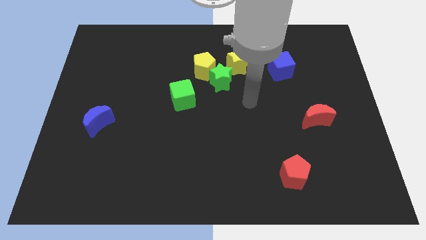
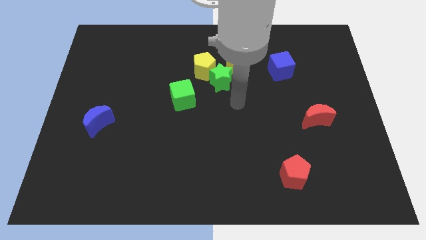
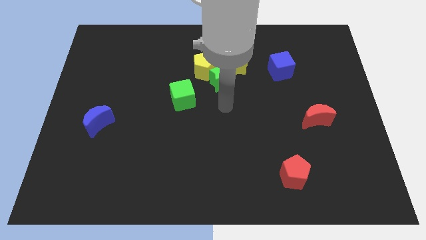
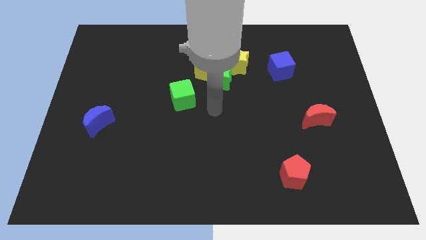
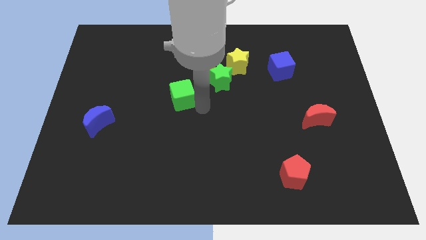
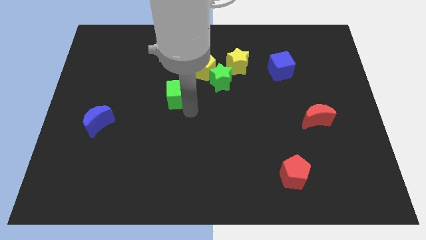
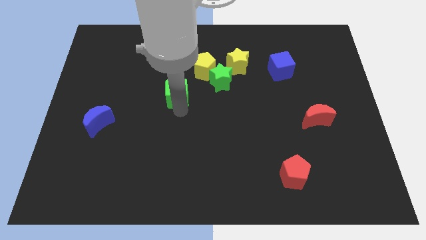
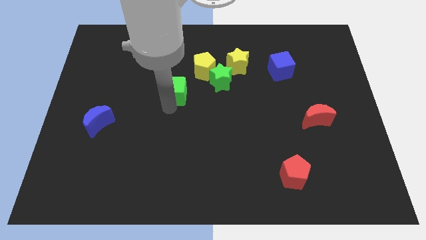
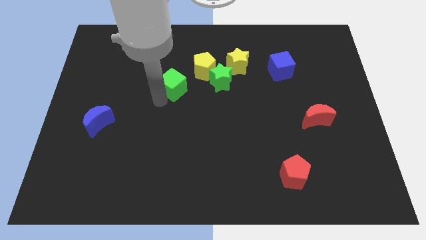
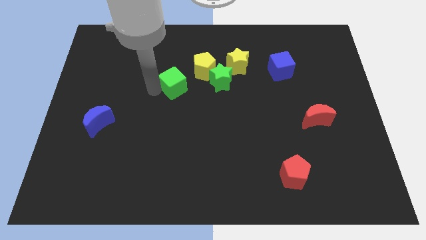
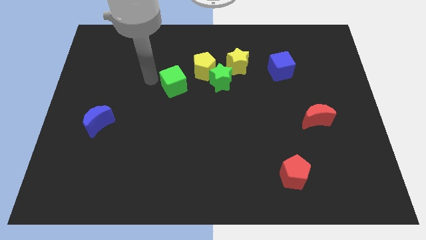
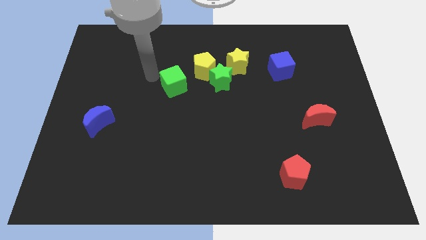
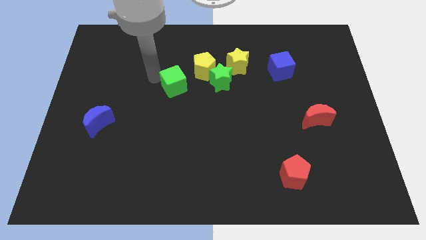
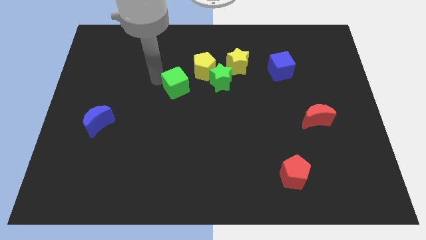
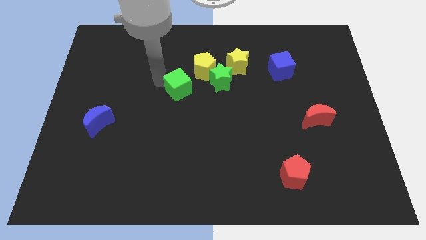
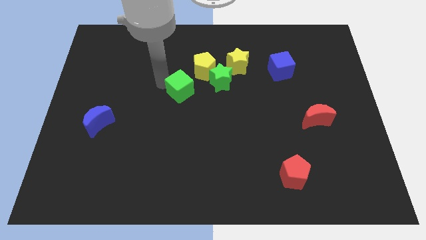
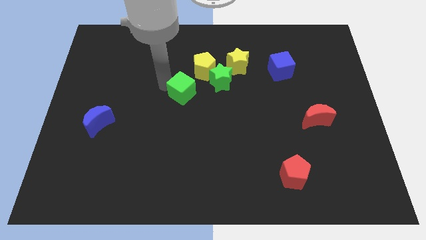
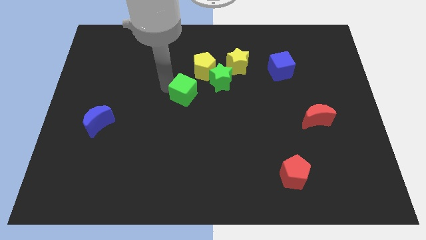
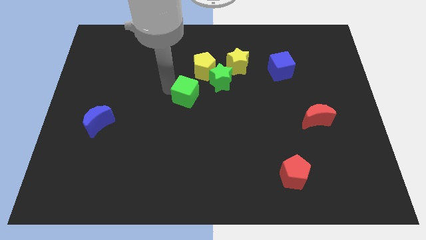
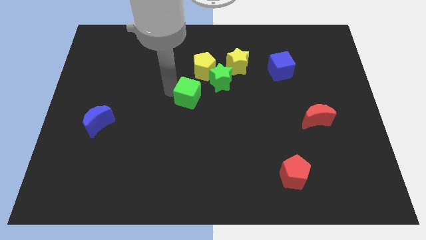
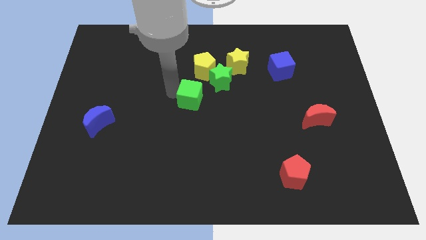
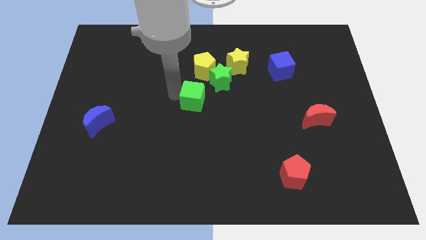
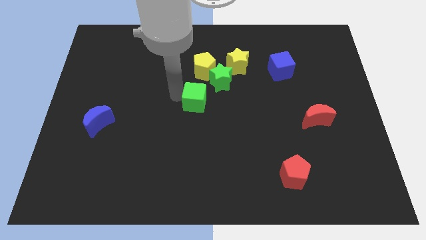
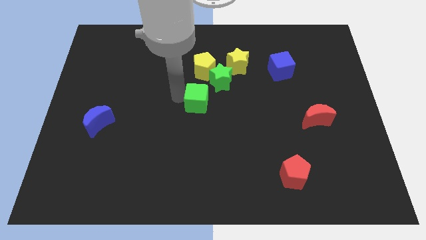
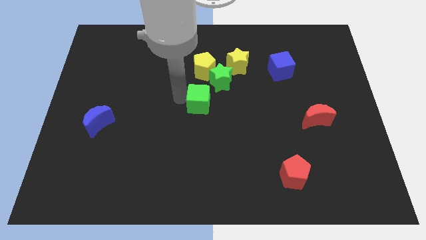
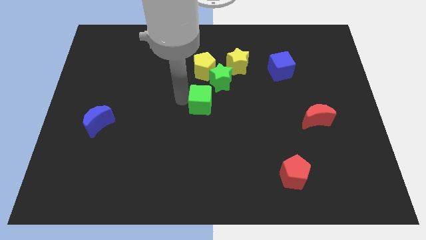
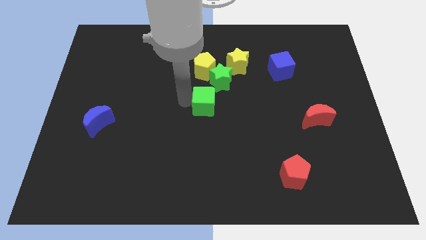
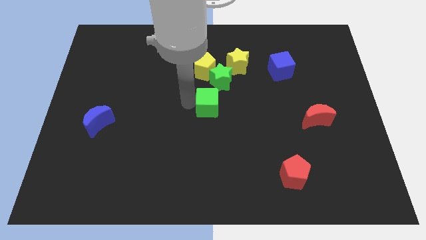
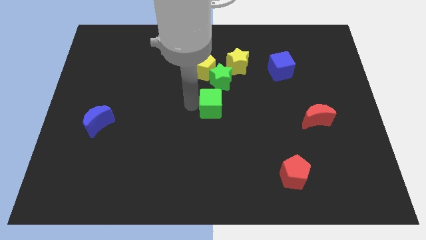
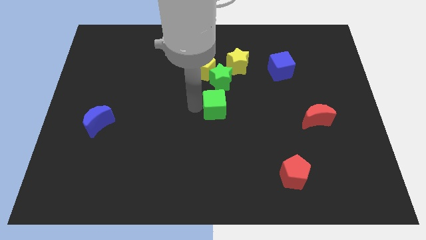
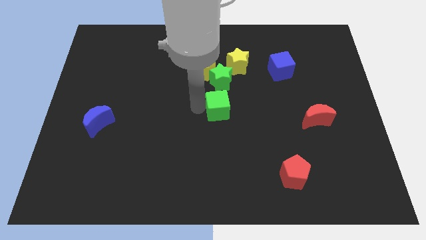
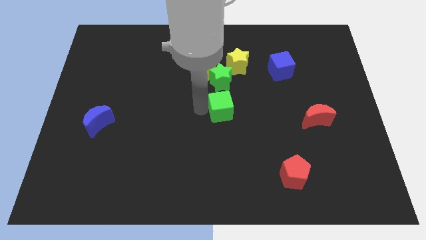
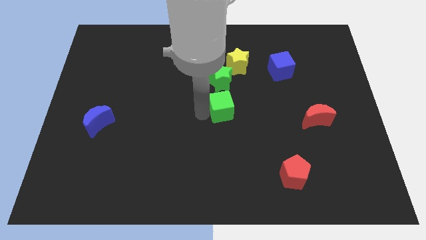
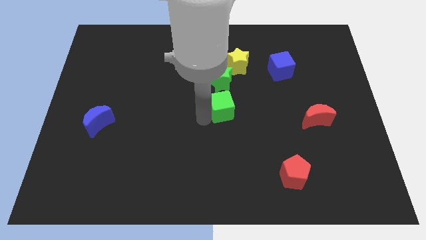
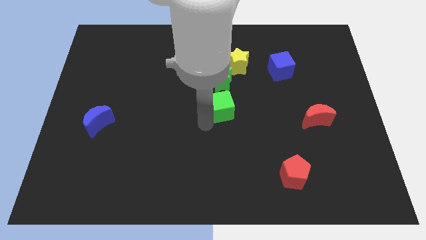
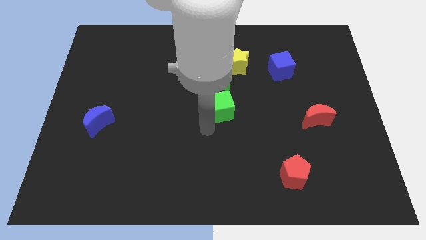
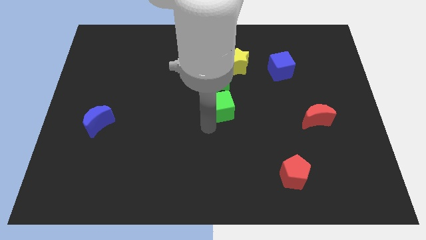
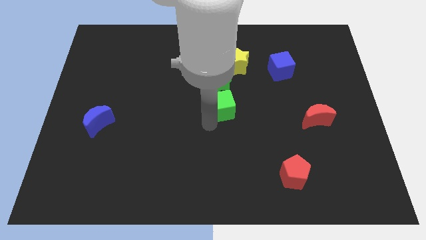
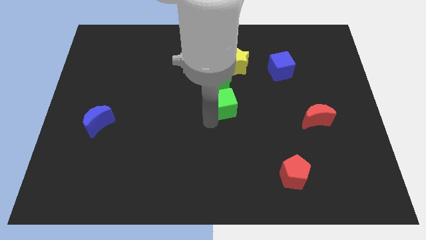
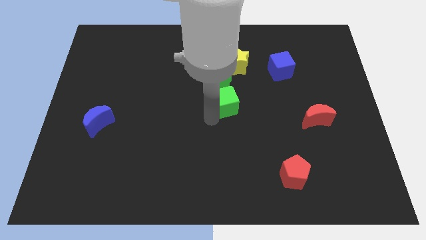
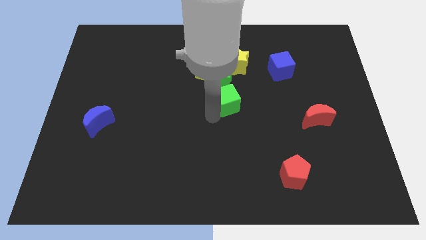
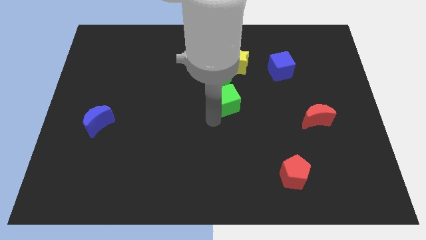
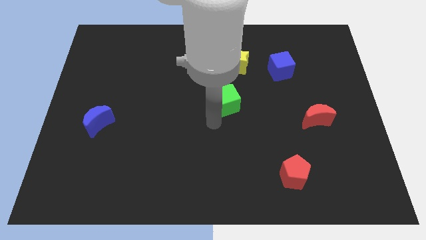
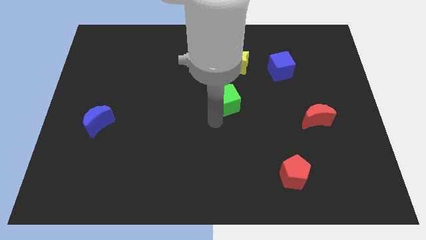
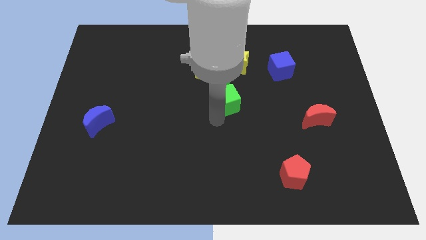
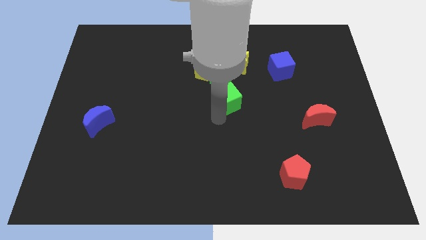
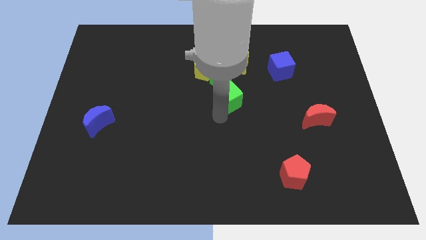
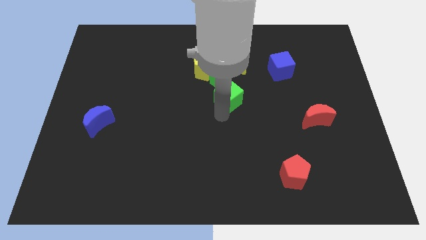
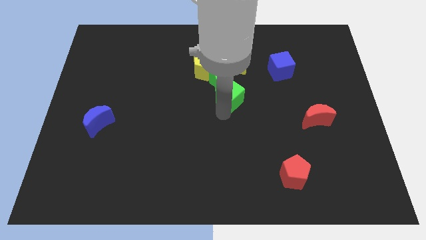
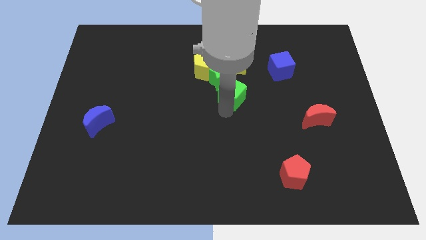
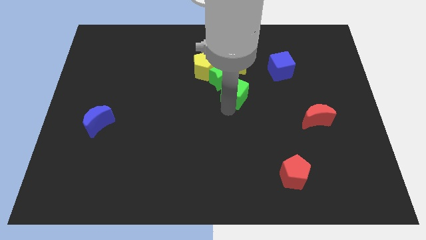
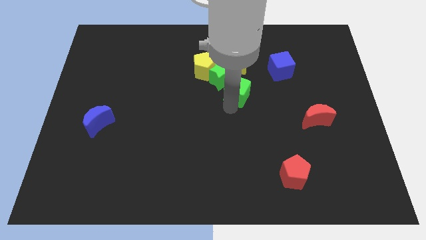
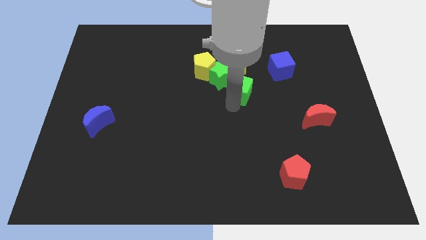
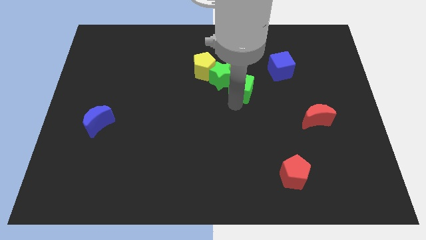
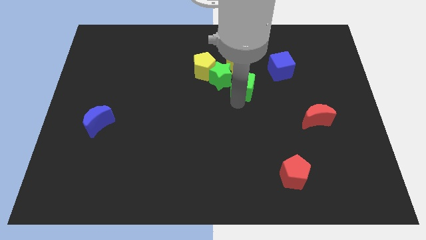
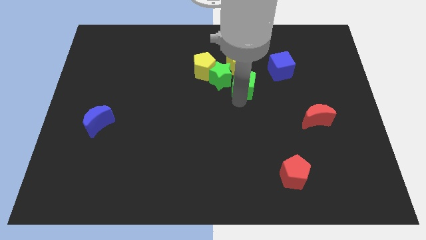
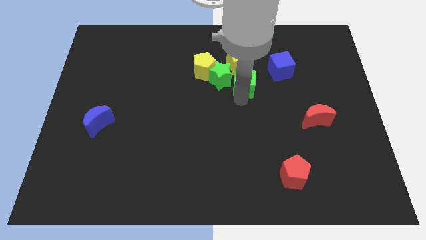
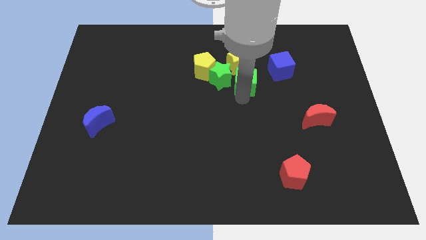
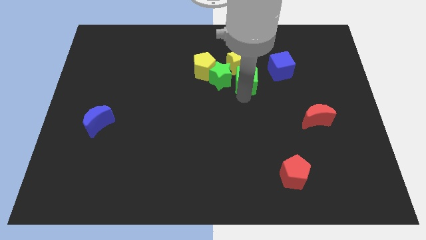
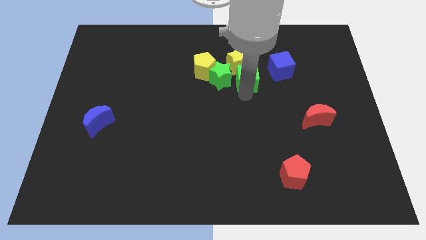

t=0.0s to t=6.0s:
slide the green cube towards the yellow star

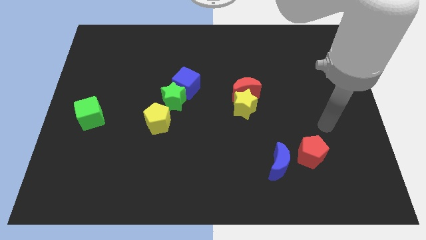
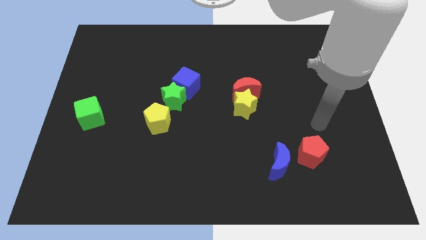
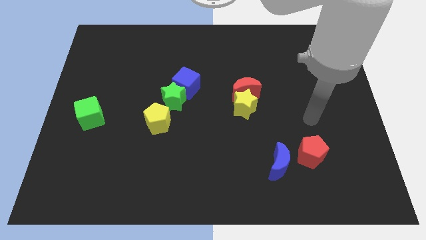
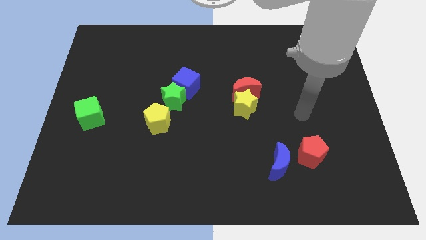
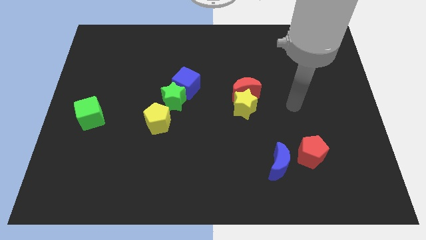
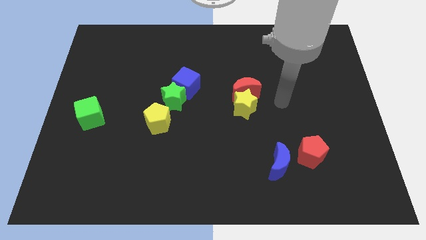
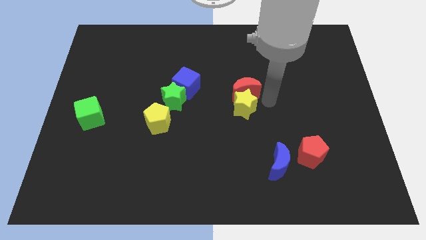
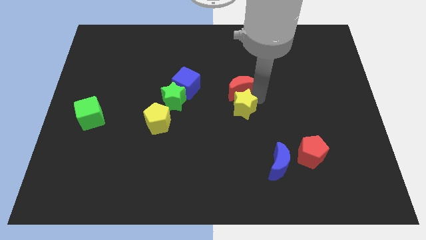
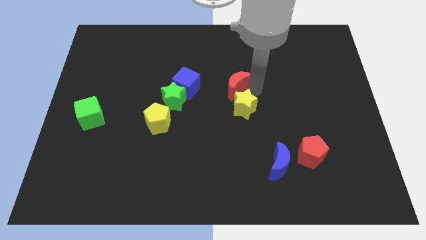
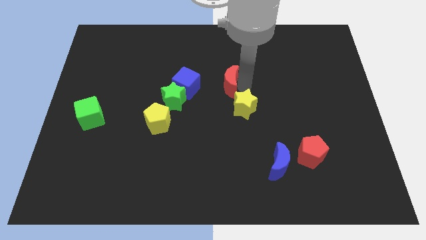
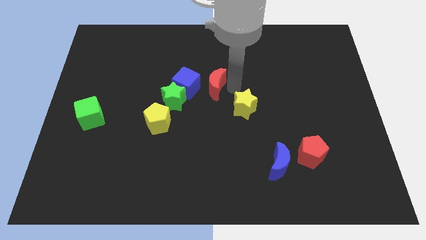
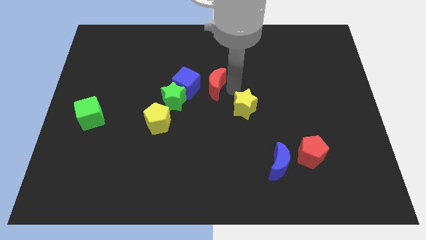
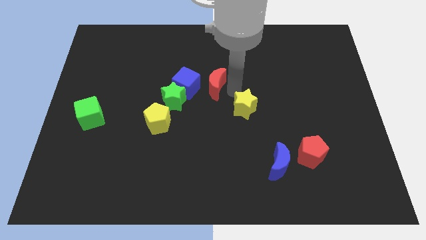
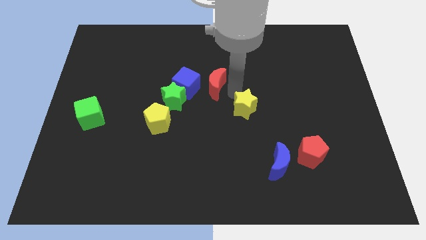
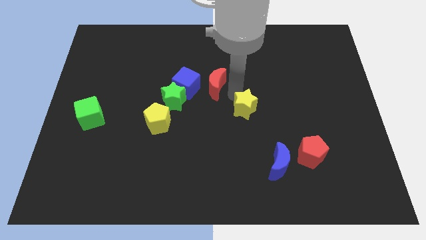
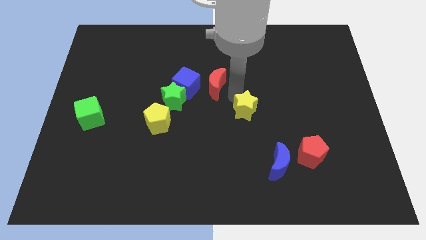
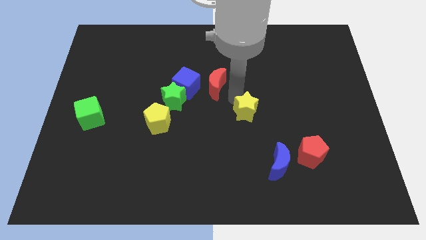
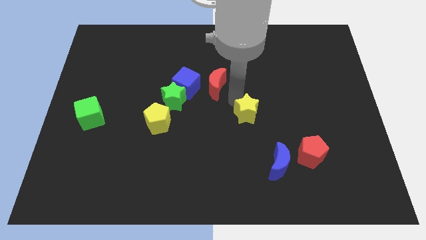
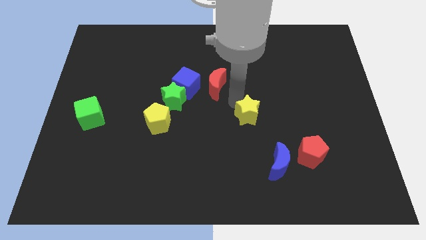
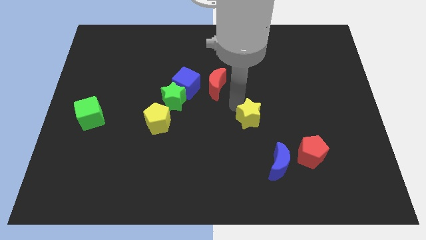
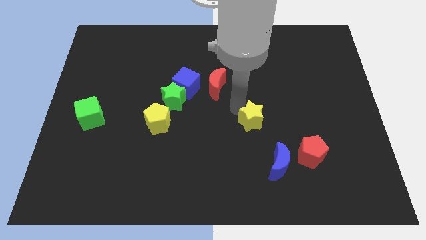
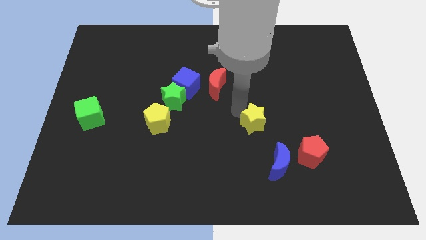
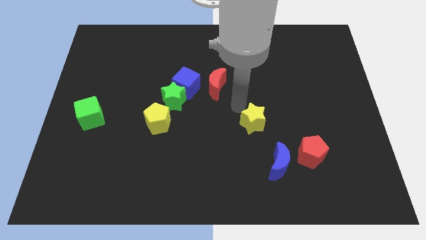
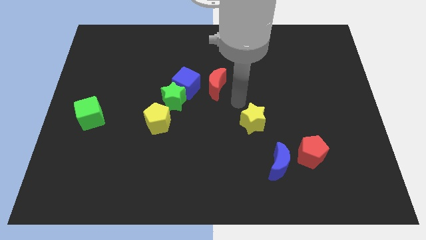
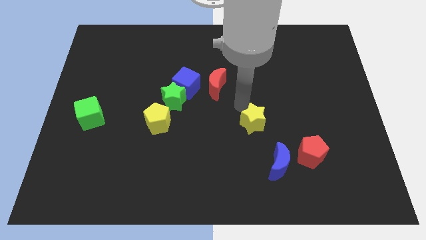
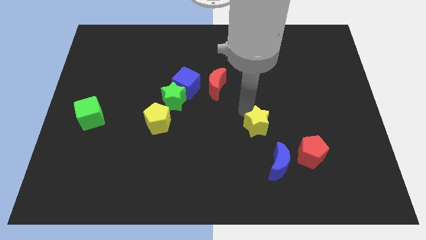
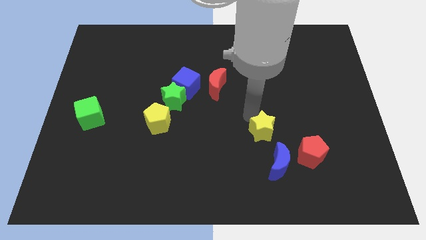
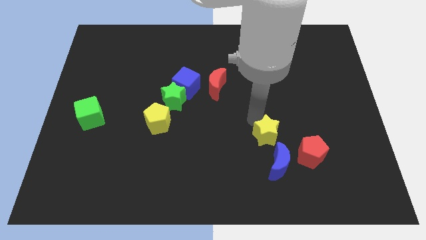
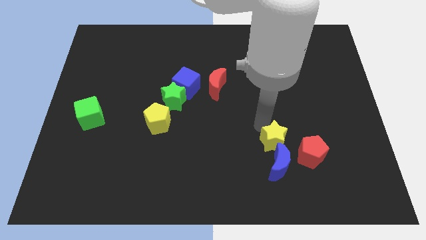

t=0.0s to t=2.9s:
slide the yellow star next to the blue moon
